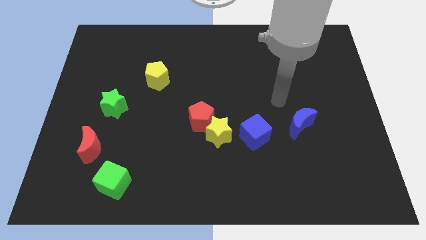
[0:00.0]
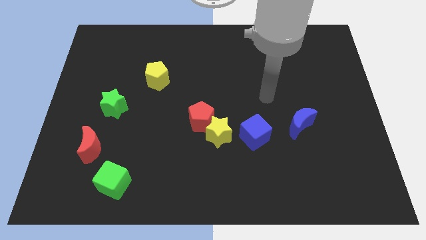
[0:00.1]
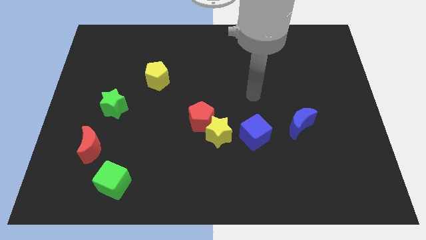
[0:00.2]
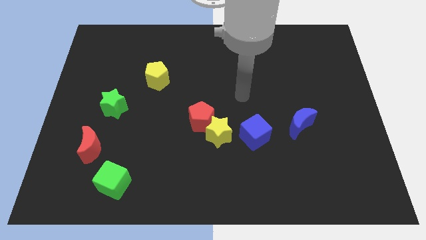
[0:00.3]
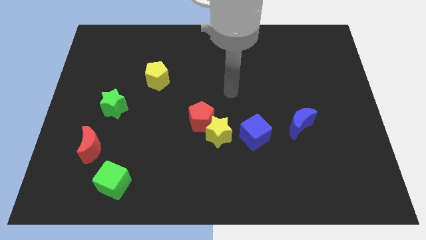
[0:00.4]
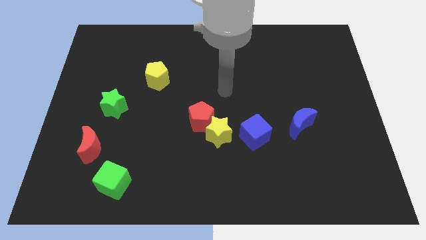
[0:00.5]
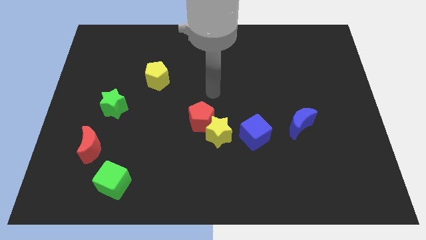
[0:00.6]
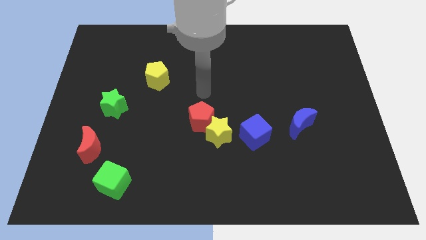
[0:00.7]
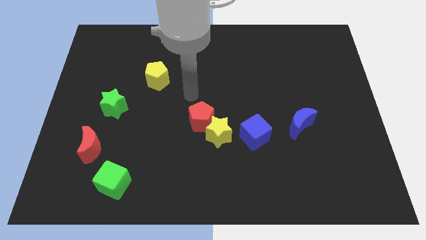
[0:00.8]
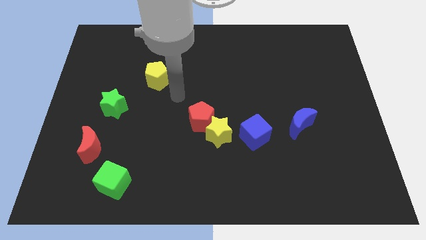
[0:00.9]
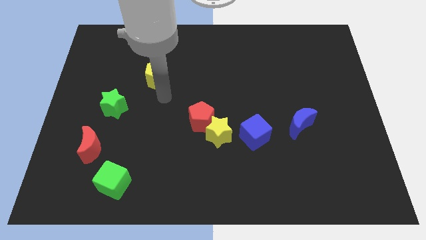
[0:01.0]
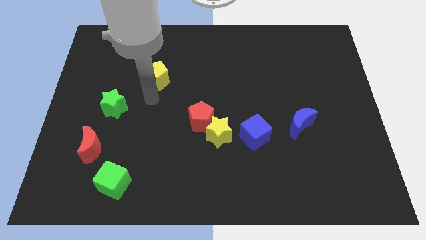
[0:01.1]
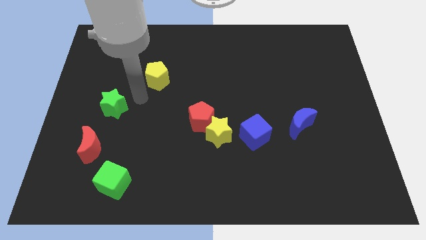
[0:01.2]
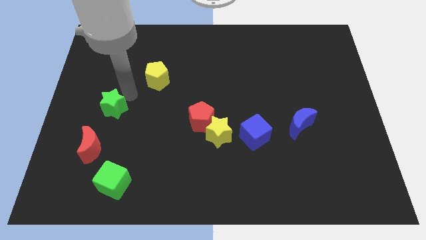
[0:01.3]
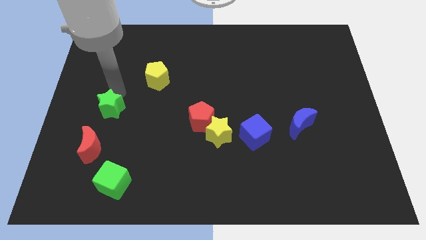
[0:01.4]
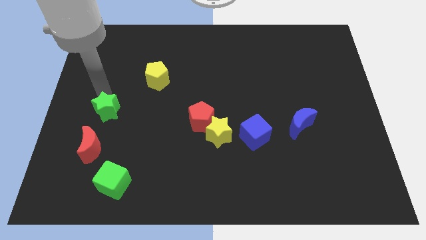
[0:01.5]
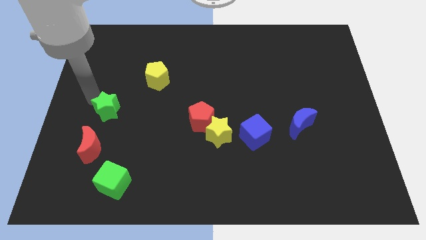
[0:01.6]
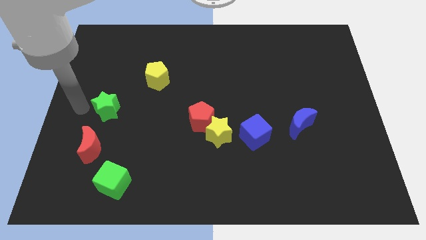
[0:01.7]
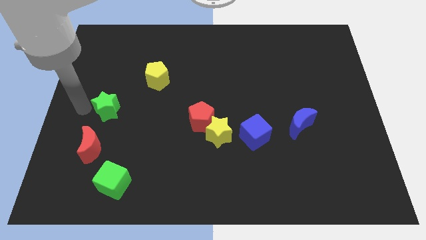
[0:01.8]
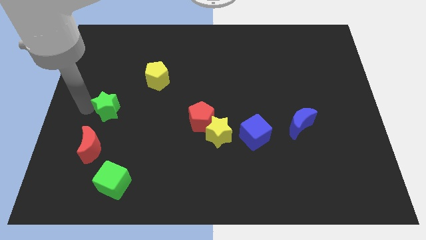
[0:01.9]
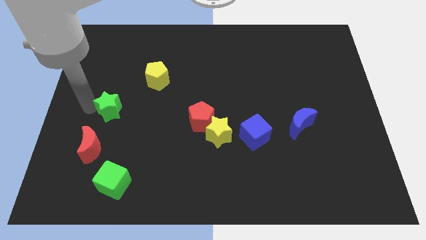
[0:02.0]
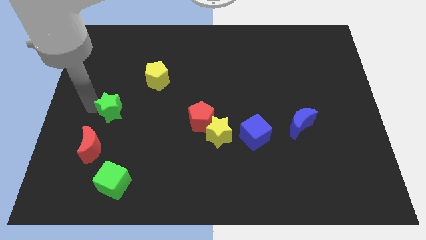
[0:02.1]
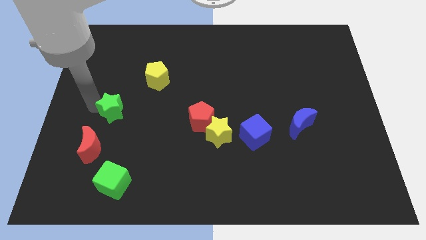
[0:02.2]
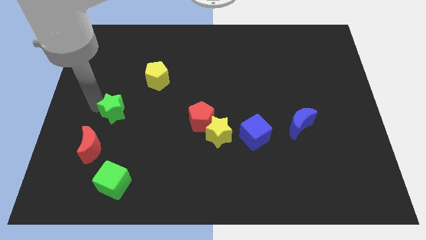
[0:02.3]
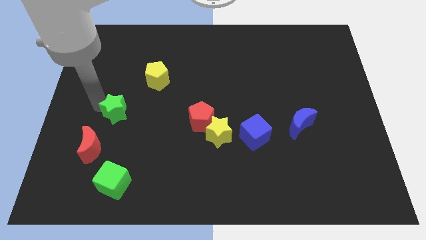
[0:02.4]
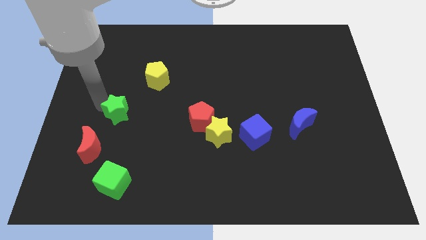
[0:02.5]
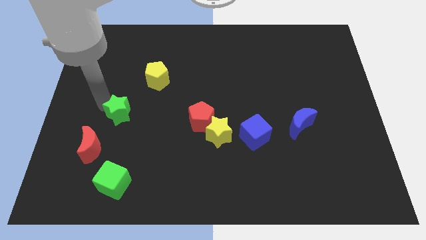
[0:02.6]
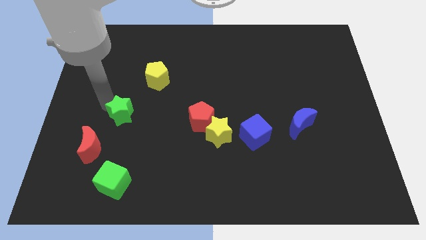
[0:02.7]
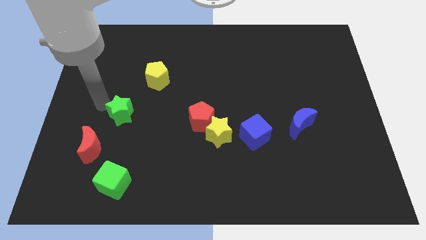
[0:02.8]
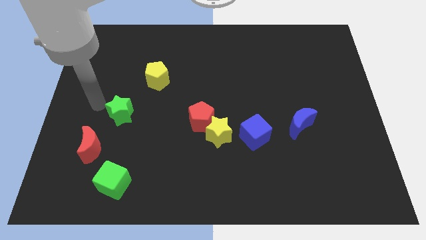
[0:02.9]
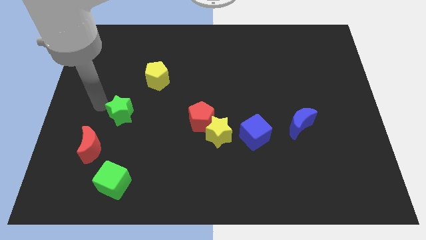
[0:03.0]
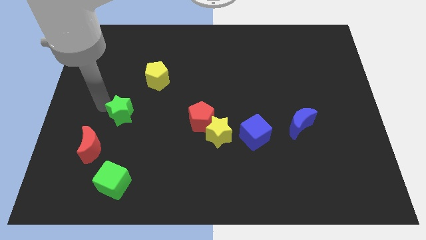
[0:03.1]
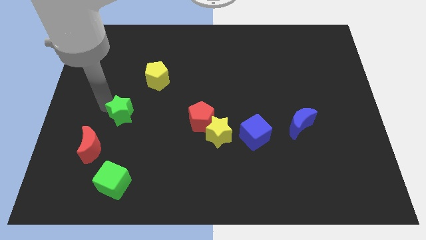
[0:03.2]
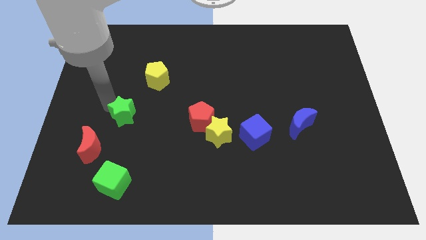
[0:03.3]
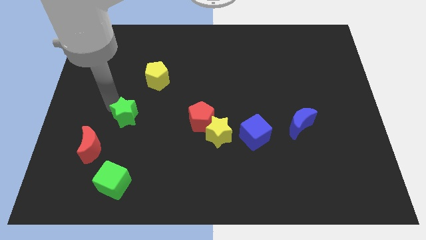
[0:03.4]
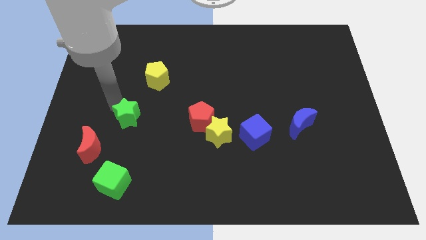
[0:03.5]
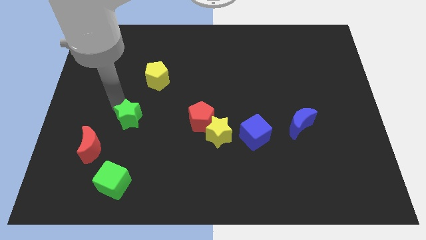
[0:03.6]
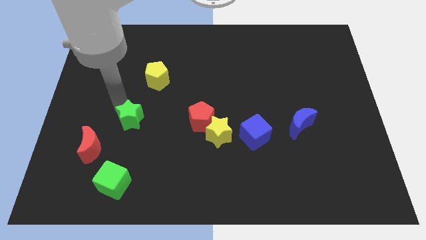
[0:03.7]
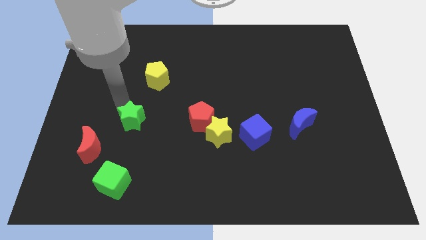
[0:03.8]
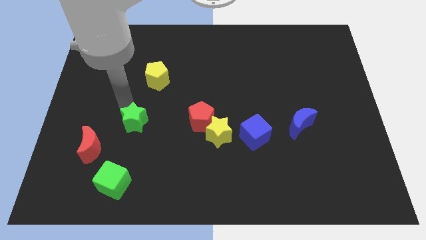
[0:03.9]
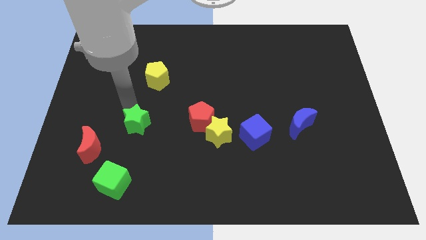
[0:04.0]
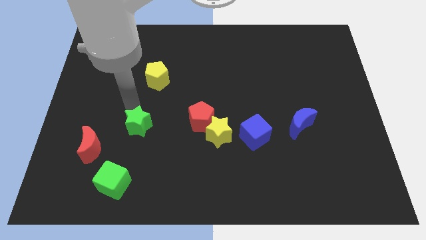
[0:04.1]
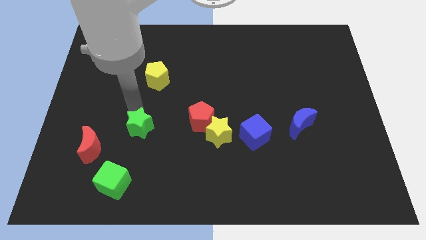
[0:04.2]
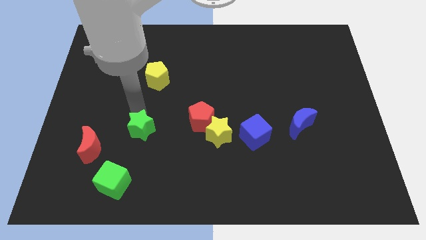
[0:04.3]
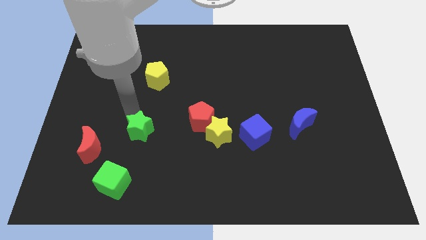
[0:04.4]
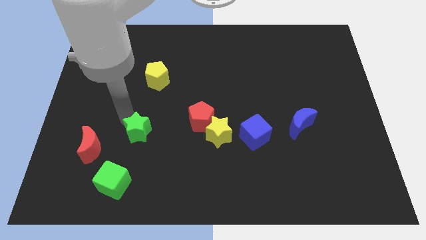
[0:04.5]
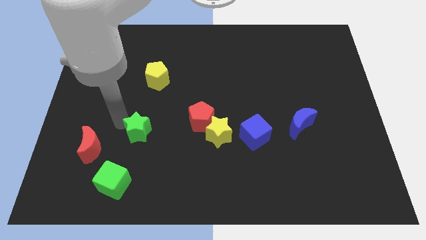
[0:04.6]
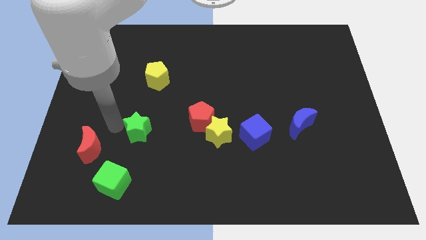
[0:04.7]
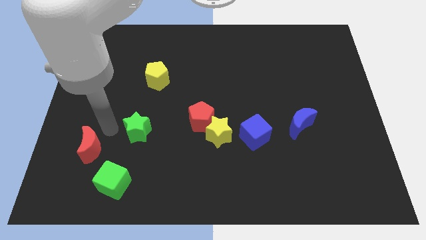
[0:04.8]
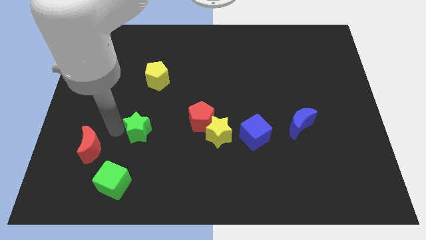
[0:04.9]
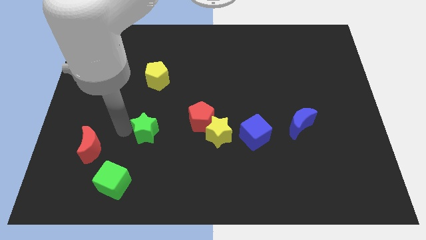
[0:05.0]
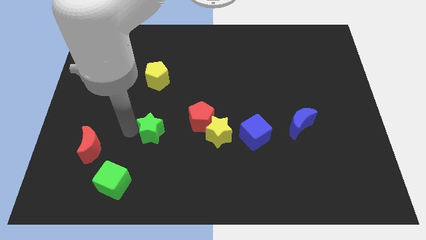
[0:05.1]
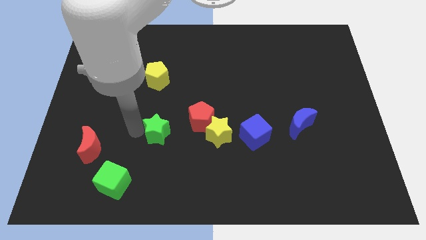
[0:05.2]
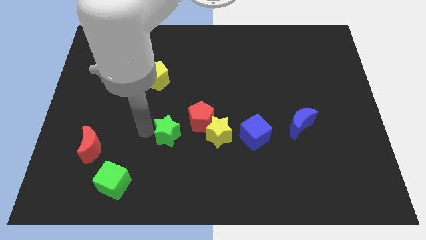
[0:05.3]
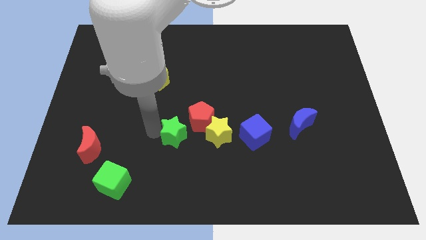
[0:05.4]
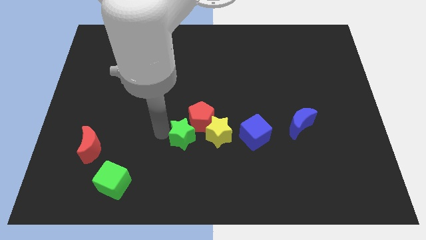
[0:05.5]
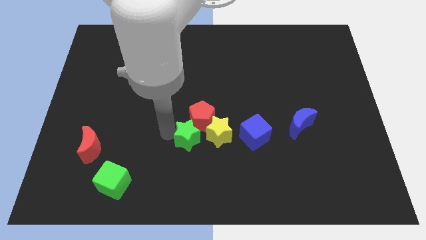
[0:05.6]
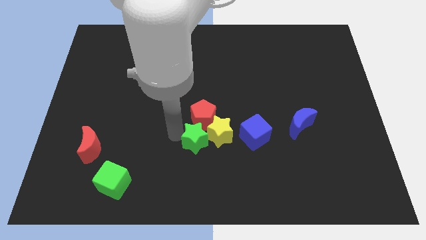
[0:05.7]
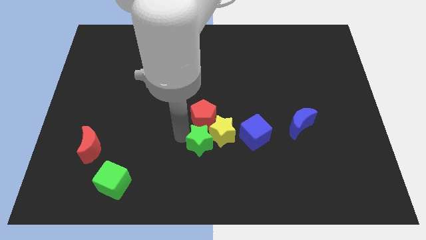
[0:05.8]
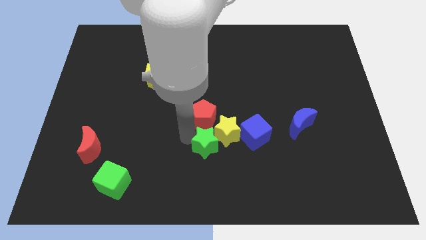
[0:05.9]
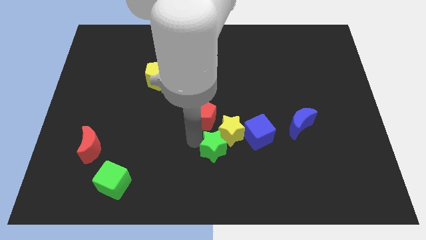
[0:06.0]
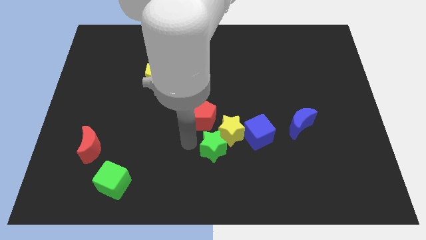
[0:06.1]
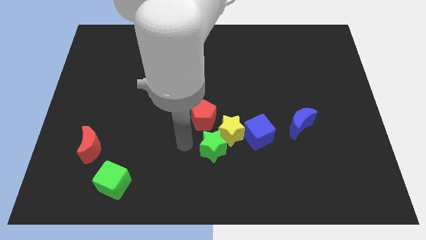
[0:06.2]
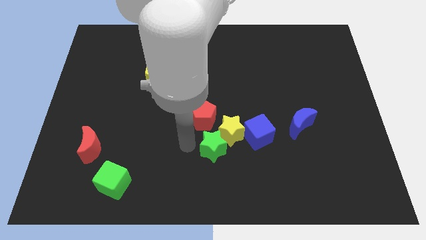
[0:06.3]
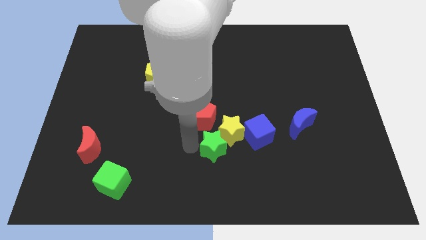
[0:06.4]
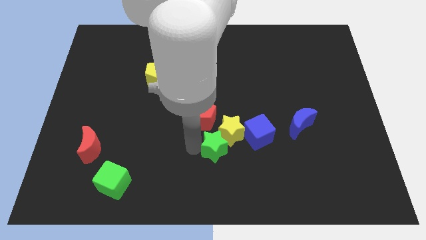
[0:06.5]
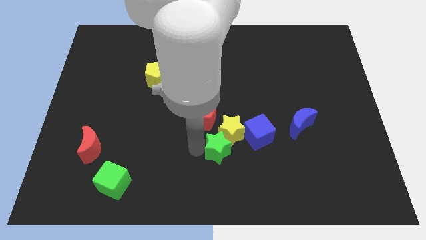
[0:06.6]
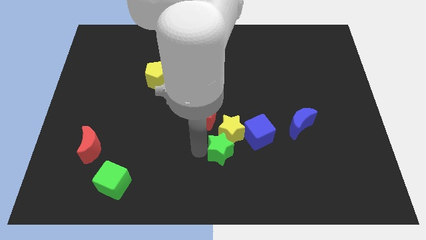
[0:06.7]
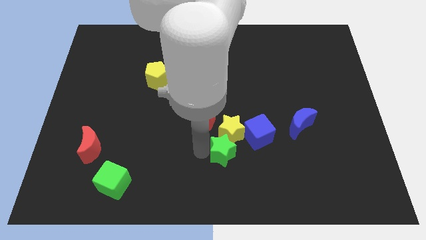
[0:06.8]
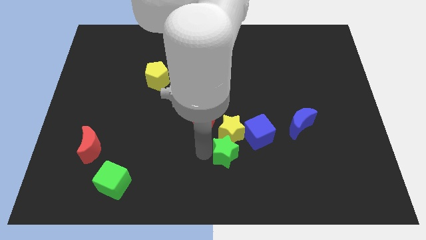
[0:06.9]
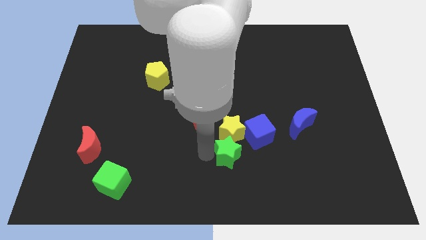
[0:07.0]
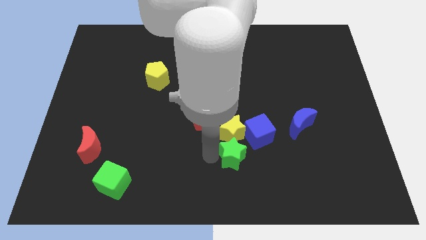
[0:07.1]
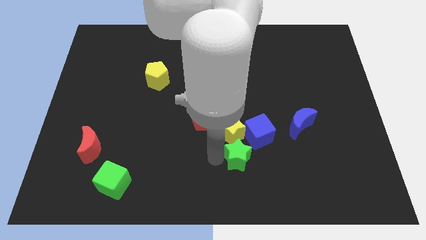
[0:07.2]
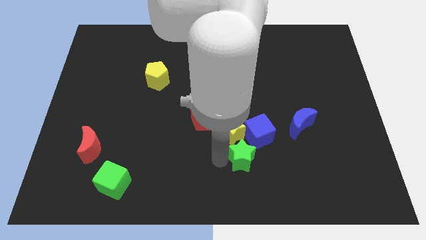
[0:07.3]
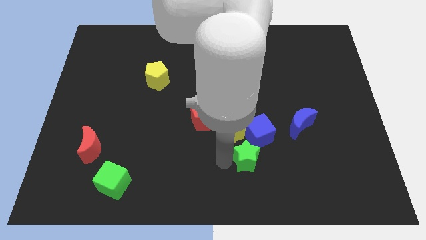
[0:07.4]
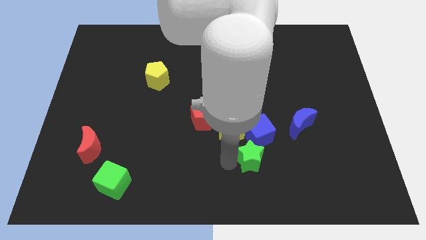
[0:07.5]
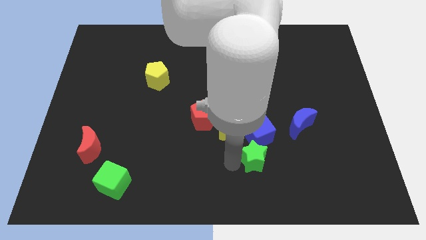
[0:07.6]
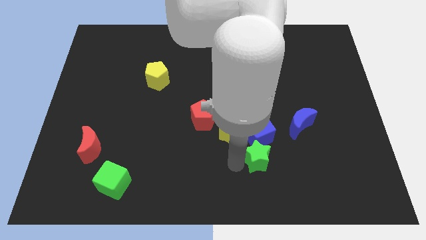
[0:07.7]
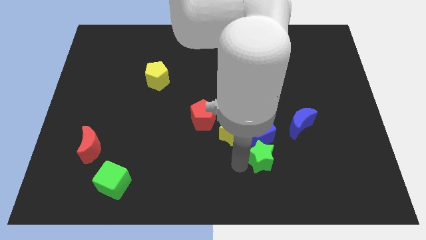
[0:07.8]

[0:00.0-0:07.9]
move the green star to the bottom left of the blue moon
